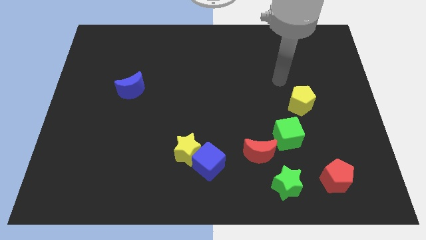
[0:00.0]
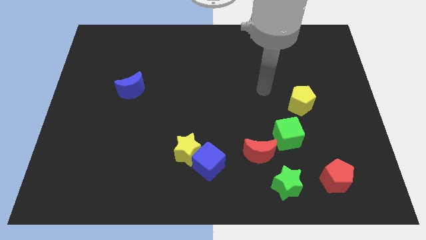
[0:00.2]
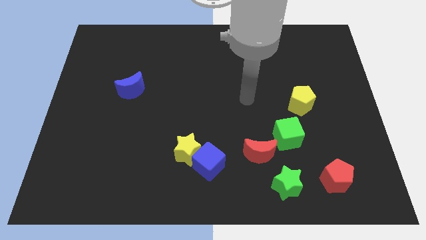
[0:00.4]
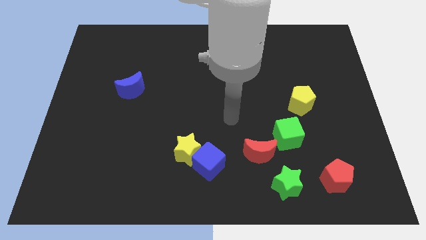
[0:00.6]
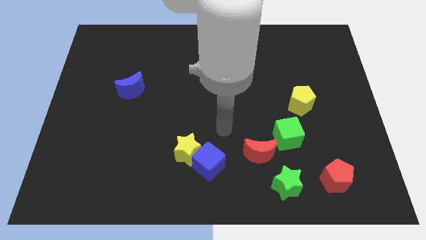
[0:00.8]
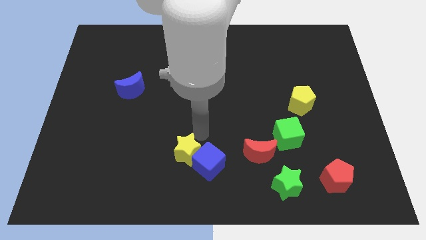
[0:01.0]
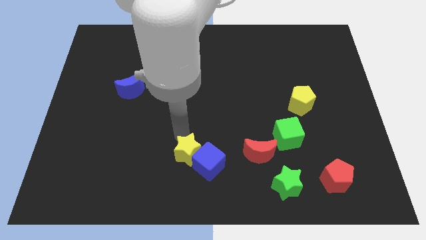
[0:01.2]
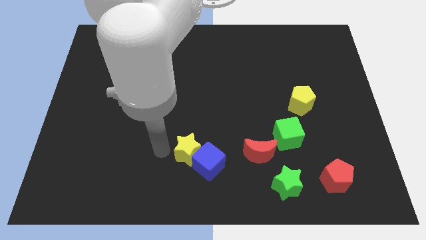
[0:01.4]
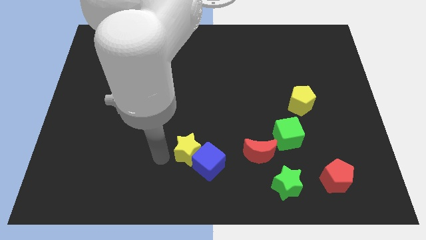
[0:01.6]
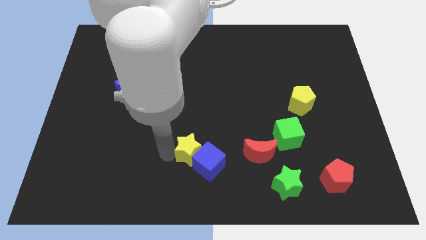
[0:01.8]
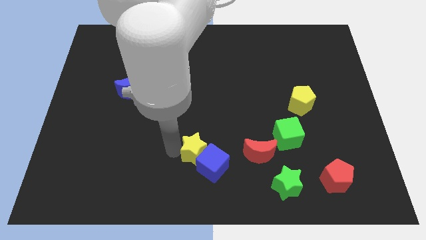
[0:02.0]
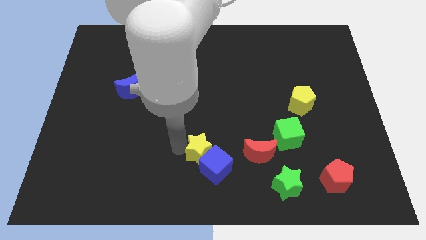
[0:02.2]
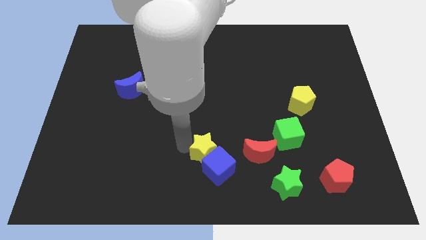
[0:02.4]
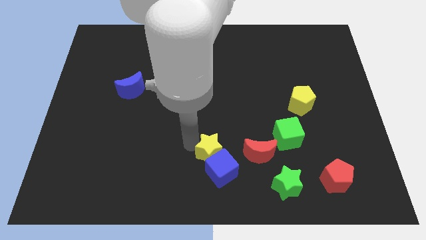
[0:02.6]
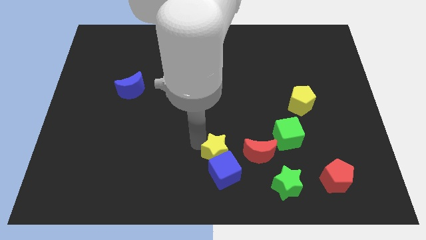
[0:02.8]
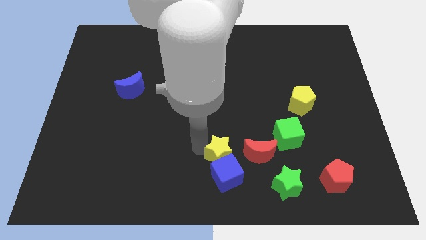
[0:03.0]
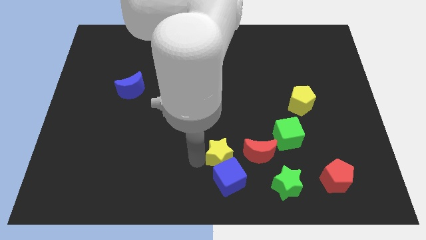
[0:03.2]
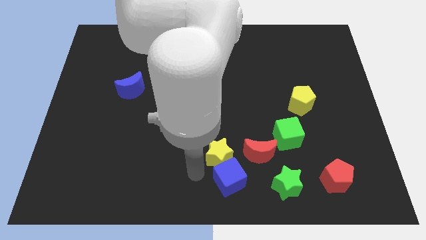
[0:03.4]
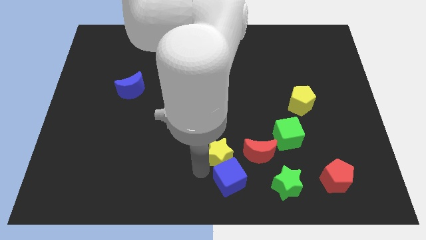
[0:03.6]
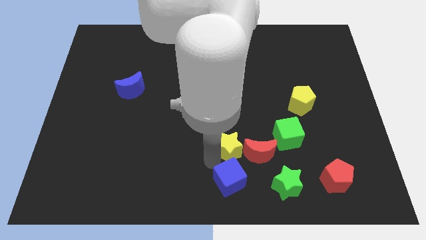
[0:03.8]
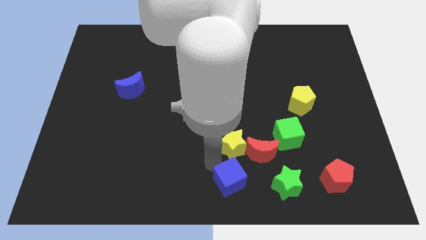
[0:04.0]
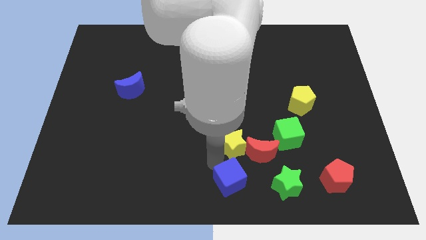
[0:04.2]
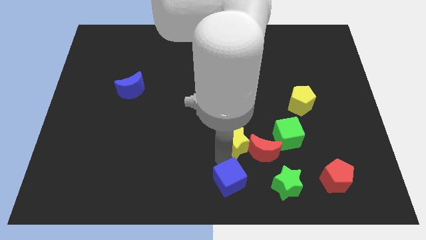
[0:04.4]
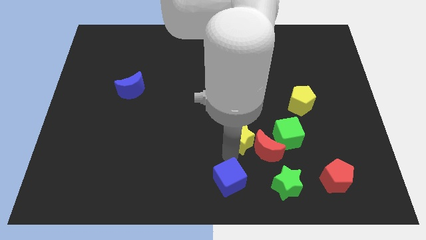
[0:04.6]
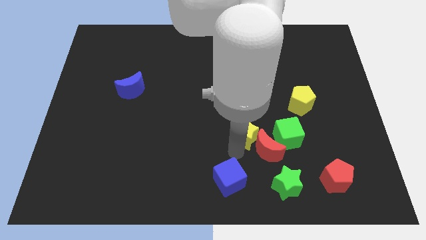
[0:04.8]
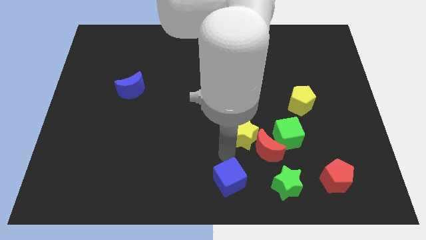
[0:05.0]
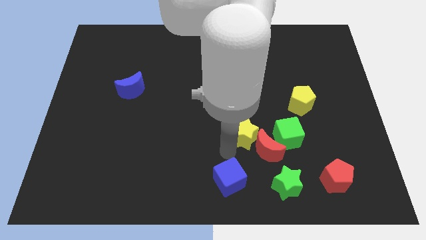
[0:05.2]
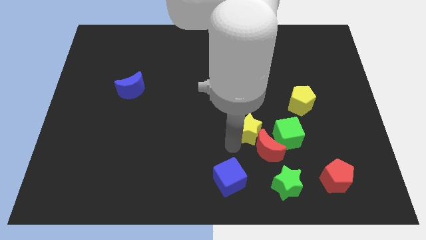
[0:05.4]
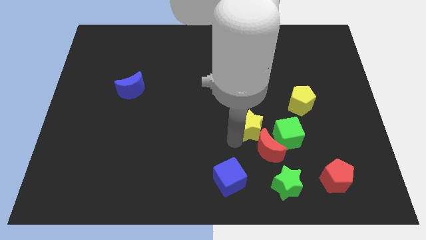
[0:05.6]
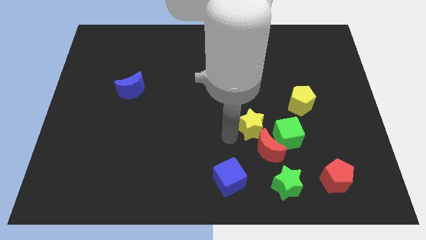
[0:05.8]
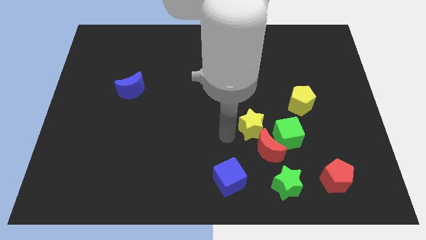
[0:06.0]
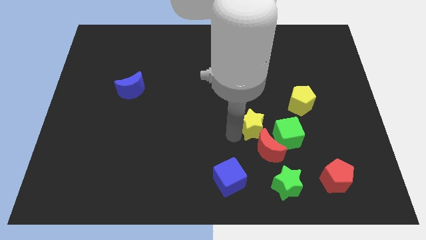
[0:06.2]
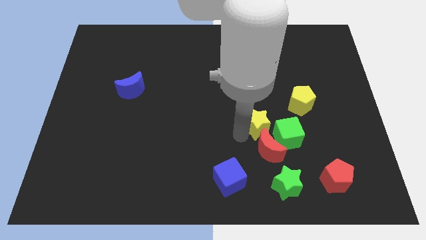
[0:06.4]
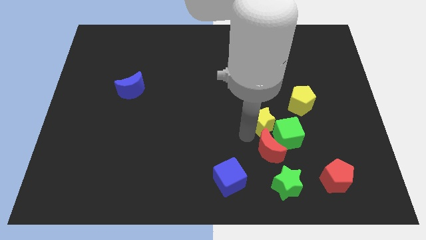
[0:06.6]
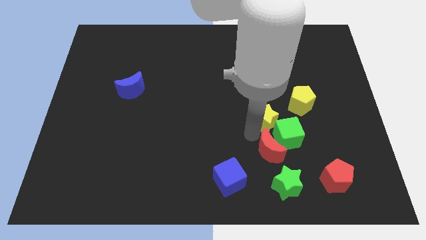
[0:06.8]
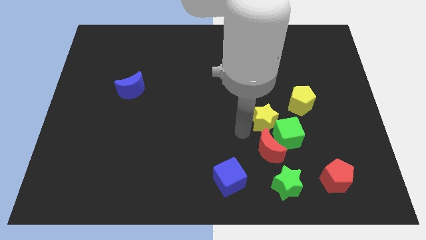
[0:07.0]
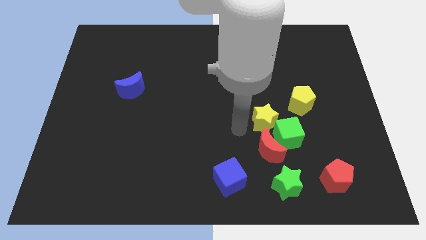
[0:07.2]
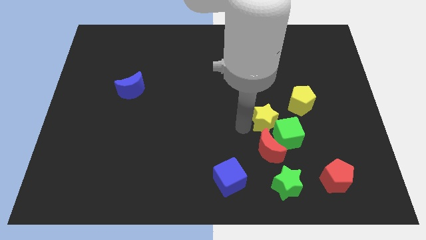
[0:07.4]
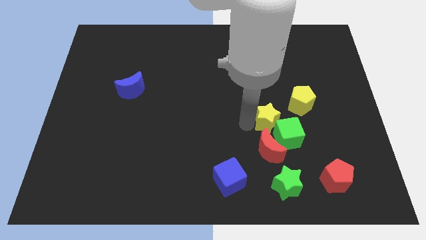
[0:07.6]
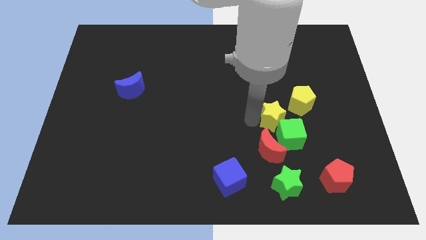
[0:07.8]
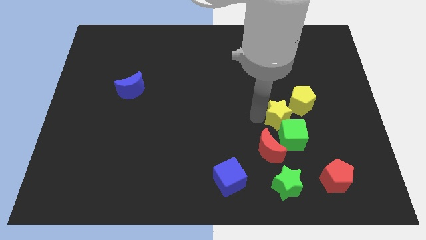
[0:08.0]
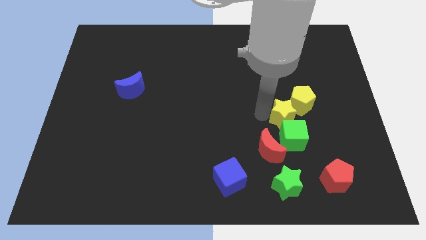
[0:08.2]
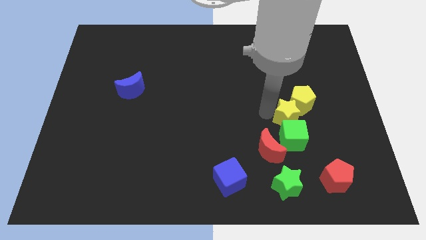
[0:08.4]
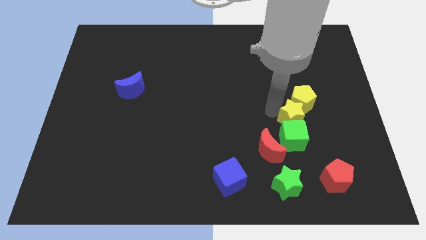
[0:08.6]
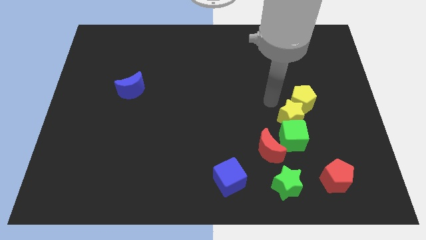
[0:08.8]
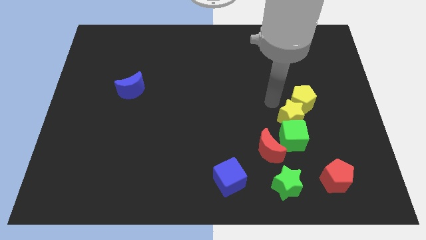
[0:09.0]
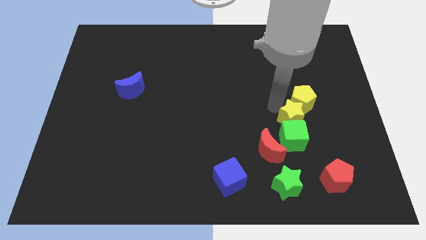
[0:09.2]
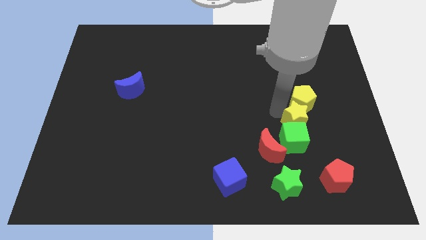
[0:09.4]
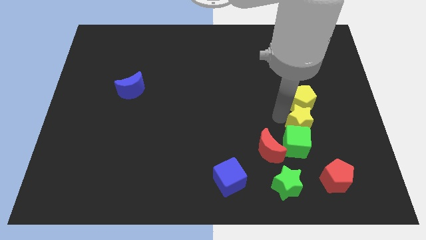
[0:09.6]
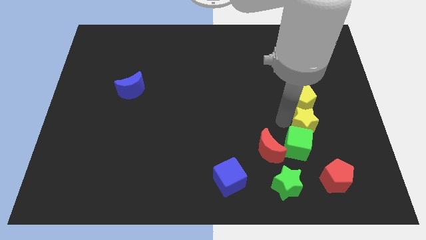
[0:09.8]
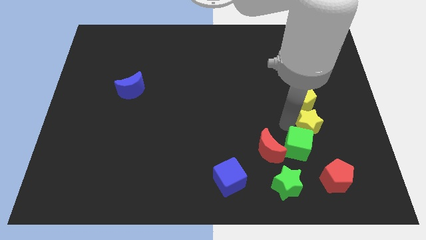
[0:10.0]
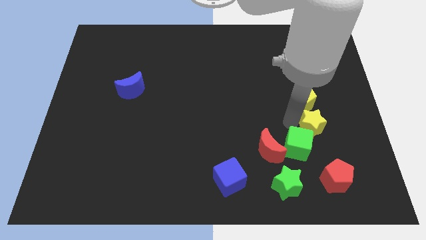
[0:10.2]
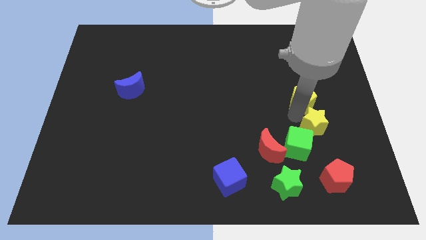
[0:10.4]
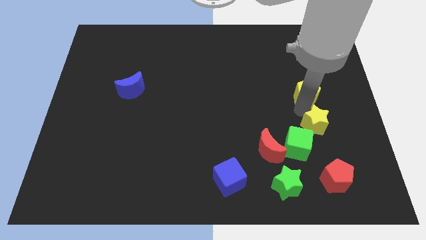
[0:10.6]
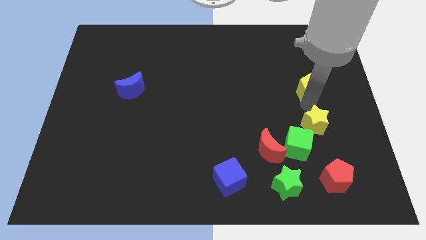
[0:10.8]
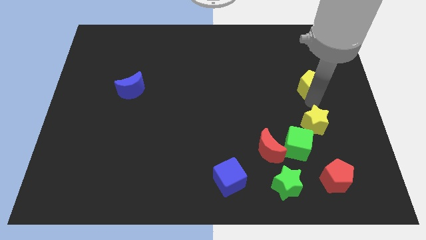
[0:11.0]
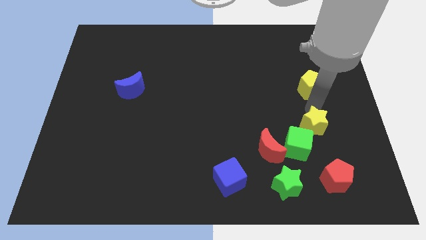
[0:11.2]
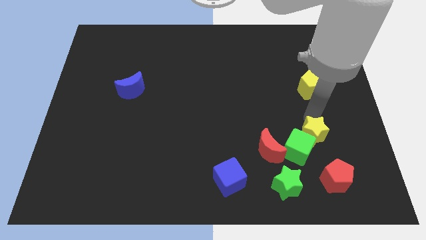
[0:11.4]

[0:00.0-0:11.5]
push the yellow star just right of the red moon

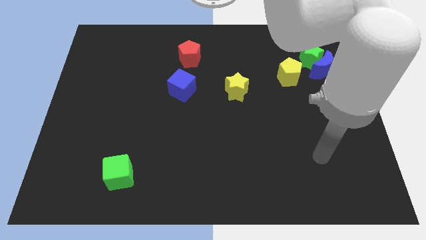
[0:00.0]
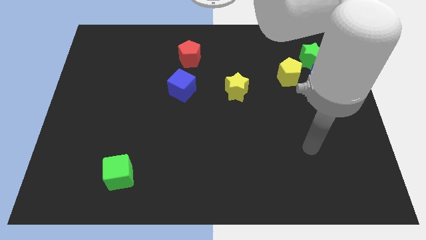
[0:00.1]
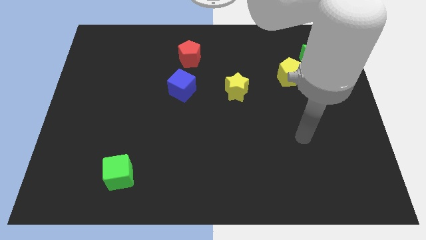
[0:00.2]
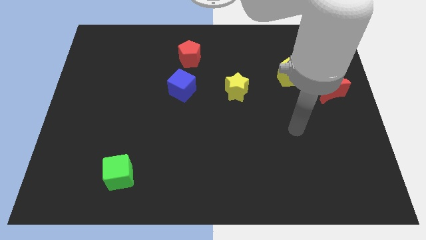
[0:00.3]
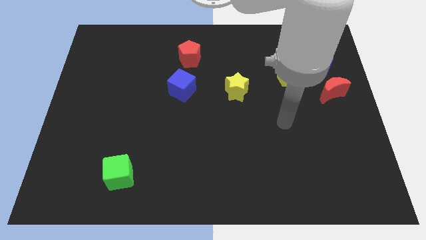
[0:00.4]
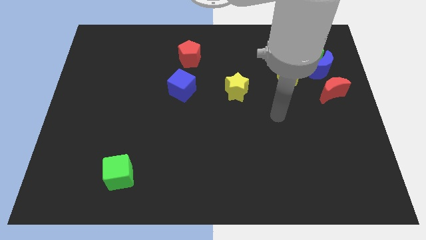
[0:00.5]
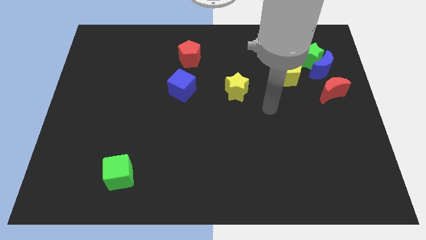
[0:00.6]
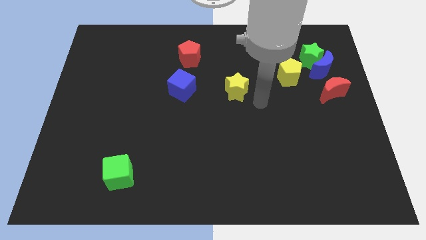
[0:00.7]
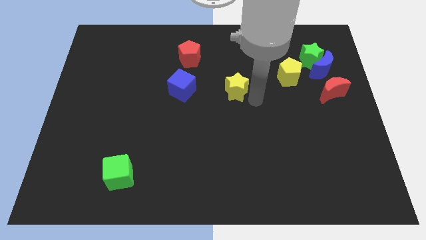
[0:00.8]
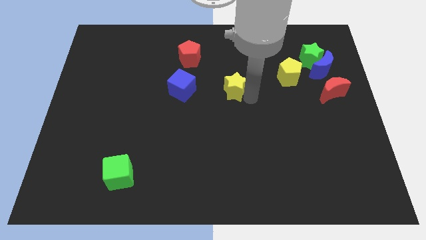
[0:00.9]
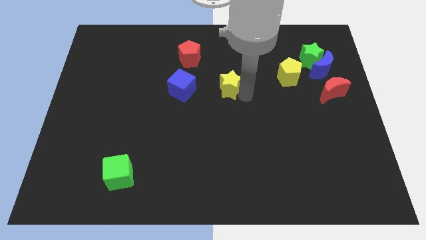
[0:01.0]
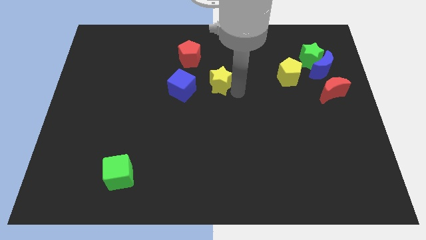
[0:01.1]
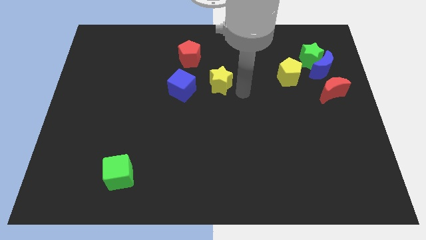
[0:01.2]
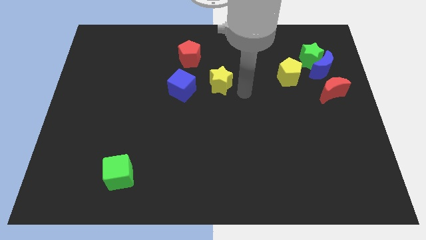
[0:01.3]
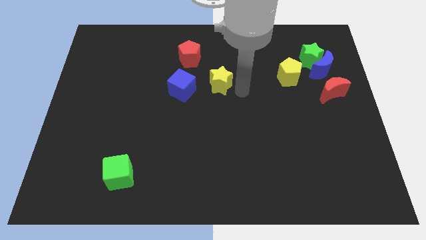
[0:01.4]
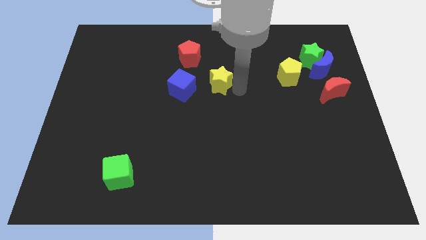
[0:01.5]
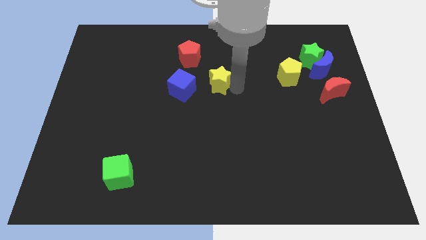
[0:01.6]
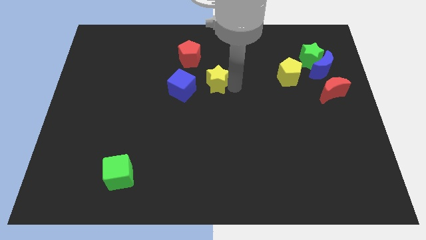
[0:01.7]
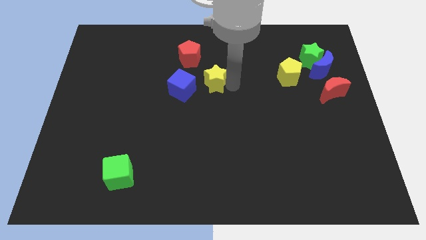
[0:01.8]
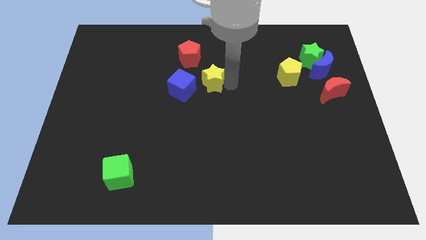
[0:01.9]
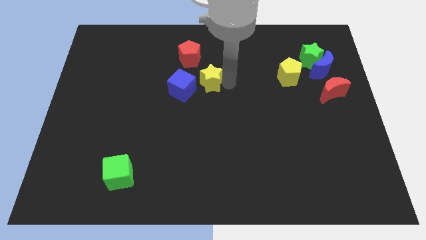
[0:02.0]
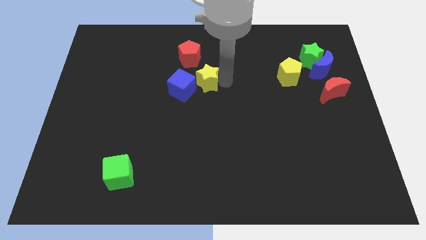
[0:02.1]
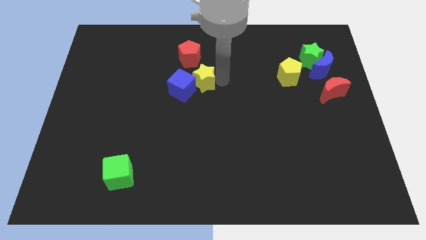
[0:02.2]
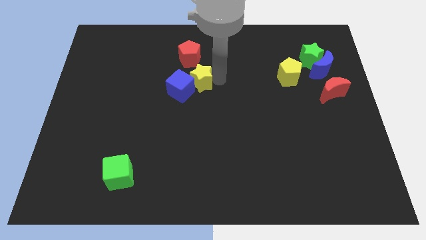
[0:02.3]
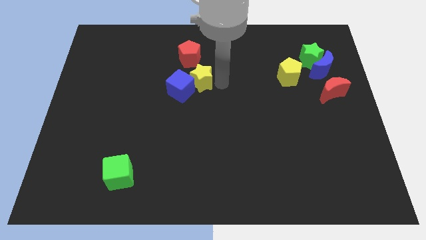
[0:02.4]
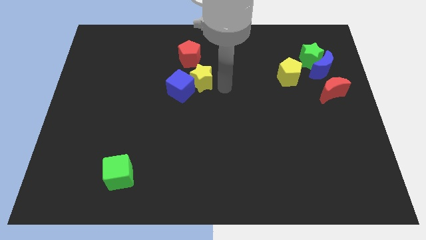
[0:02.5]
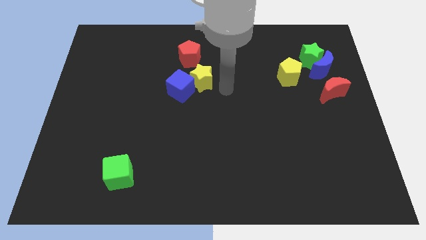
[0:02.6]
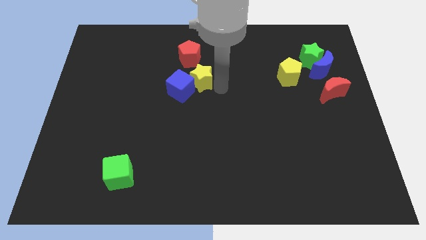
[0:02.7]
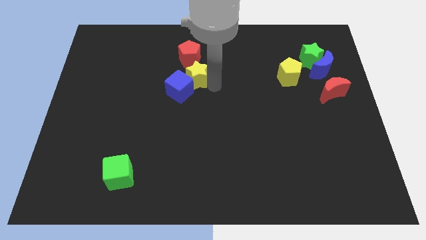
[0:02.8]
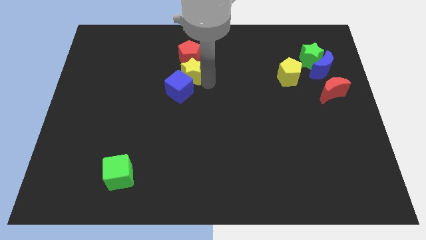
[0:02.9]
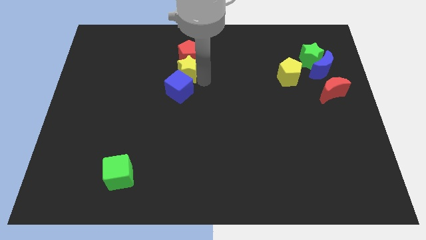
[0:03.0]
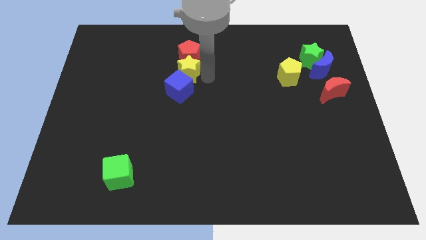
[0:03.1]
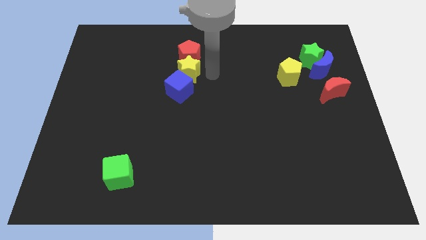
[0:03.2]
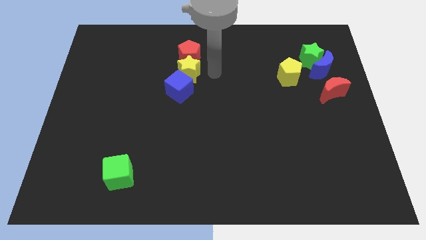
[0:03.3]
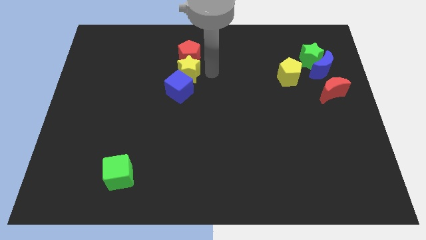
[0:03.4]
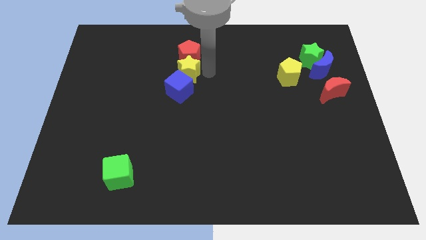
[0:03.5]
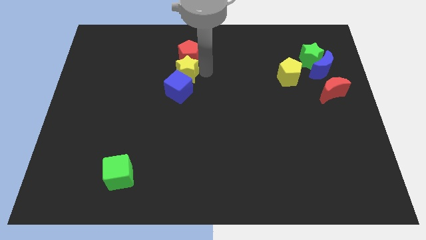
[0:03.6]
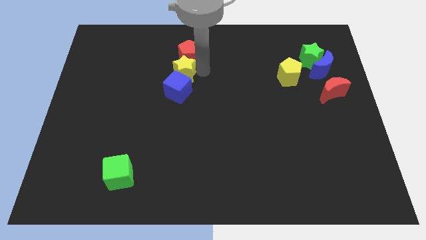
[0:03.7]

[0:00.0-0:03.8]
move the yellow star diagonally up and to the left of the blue cube
